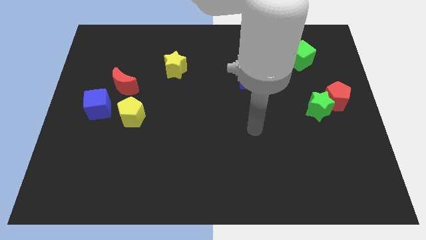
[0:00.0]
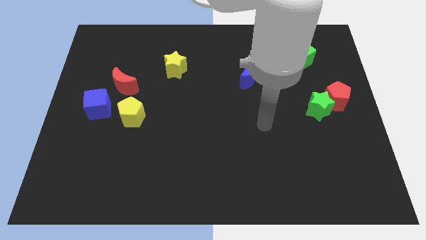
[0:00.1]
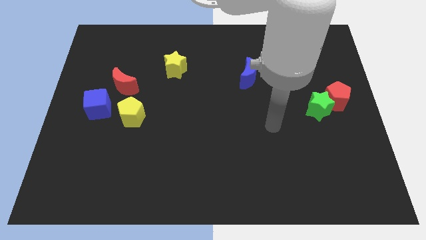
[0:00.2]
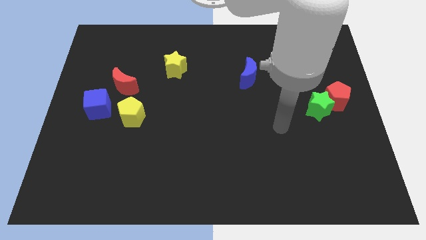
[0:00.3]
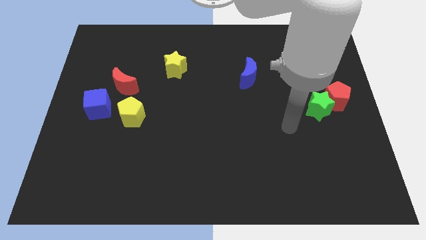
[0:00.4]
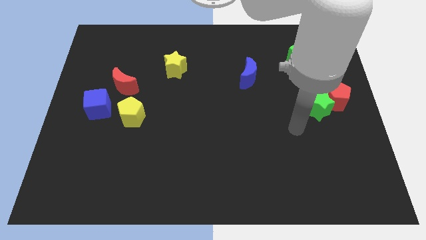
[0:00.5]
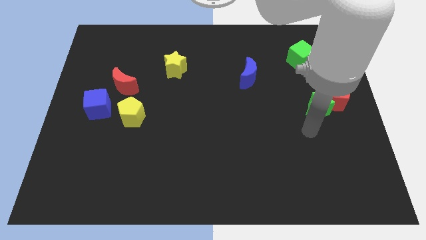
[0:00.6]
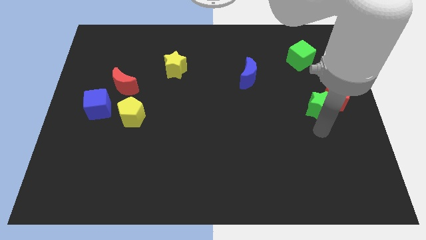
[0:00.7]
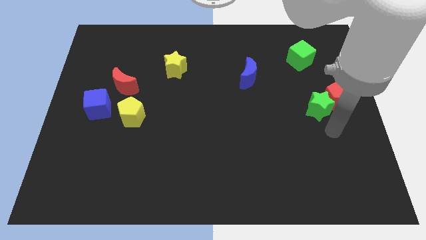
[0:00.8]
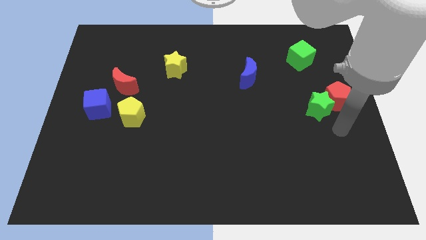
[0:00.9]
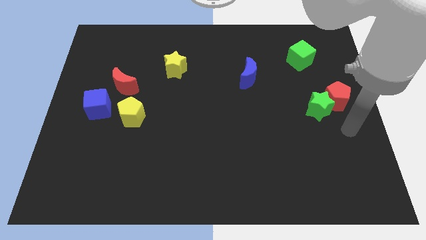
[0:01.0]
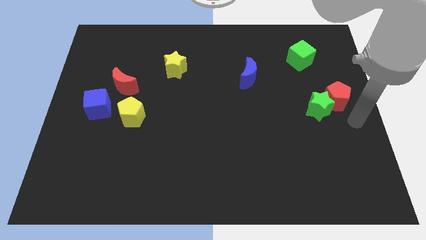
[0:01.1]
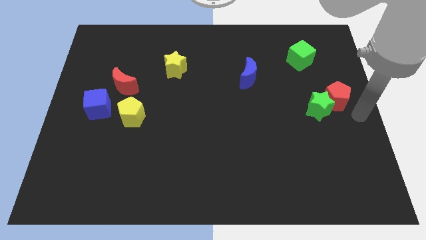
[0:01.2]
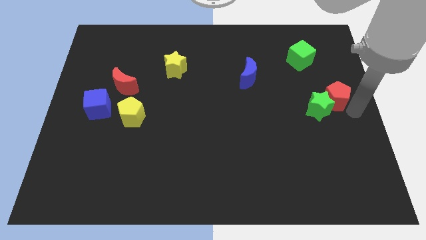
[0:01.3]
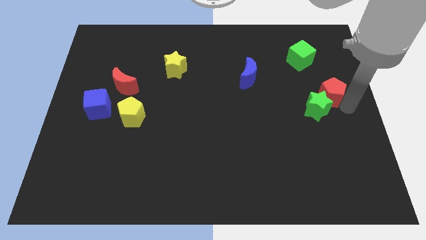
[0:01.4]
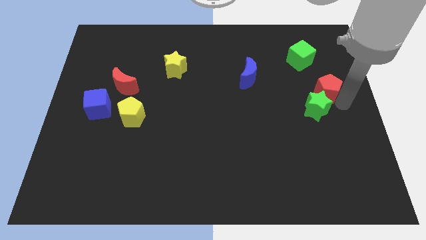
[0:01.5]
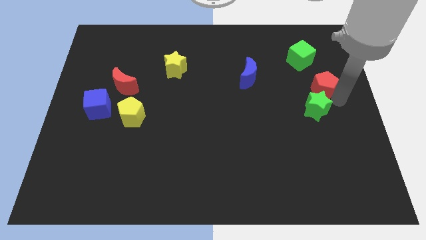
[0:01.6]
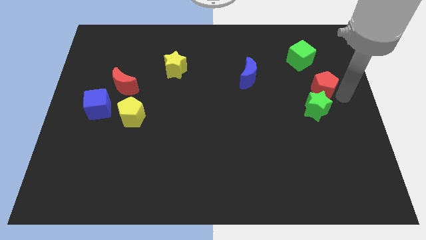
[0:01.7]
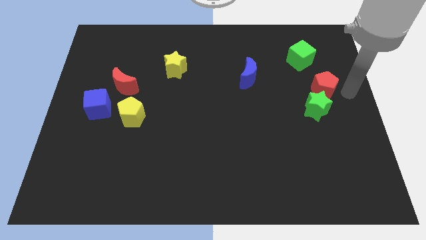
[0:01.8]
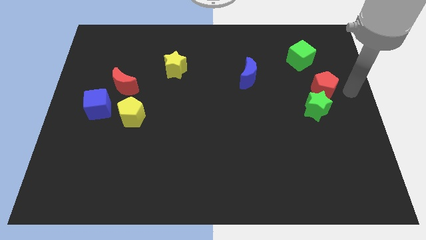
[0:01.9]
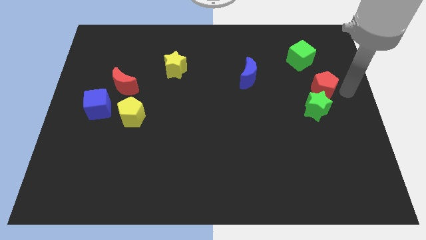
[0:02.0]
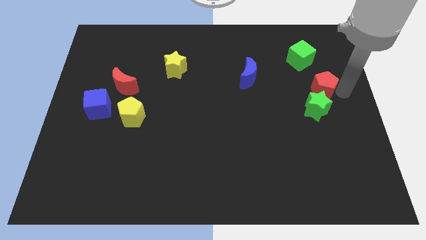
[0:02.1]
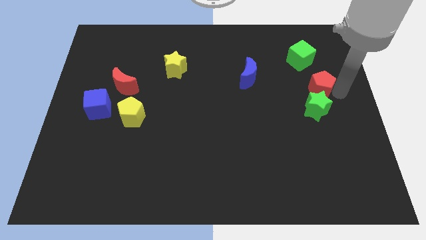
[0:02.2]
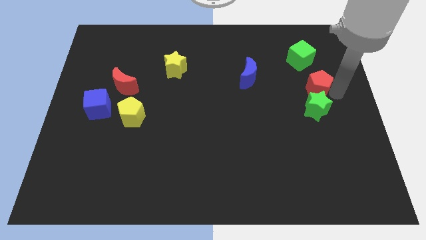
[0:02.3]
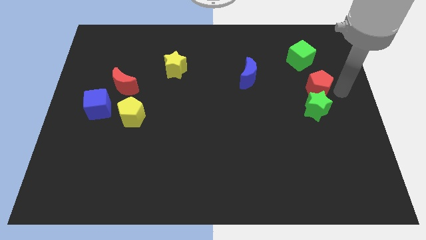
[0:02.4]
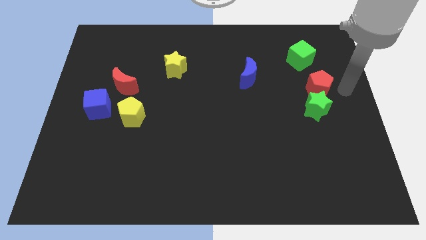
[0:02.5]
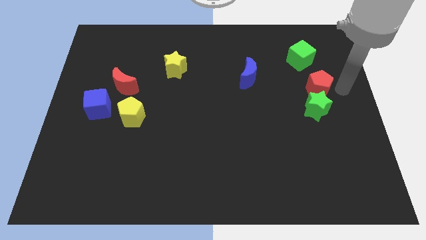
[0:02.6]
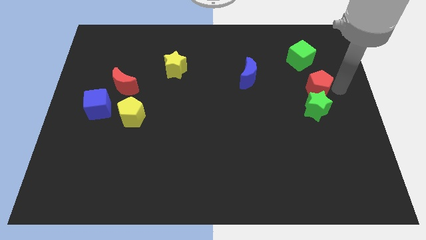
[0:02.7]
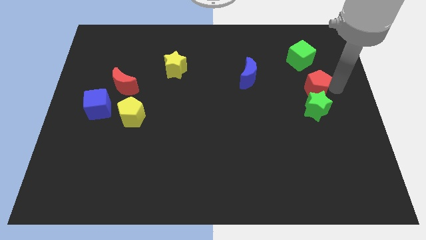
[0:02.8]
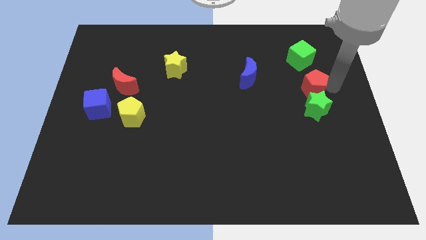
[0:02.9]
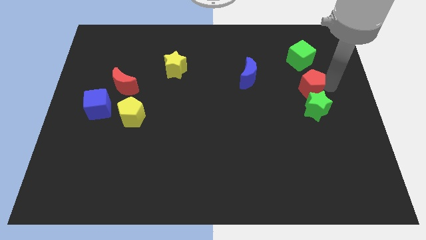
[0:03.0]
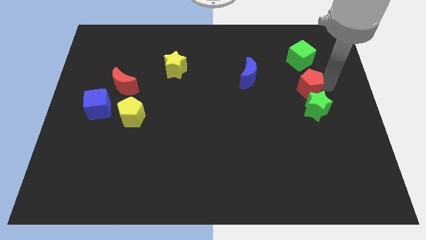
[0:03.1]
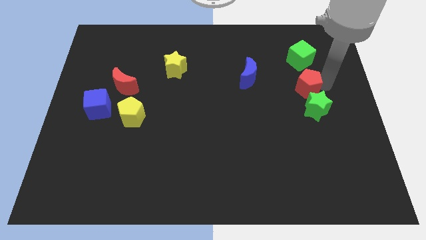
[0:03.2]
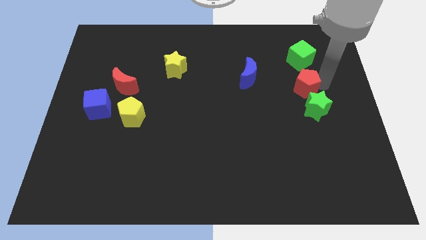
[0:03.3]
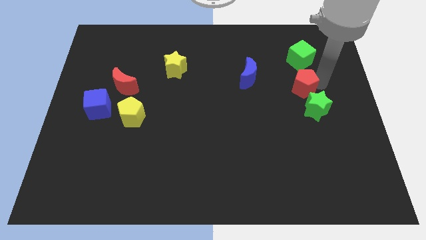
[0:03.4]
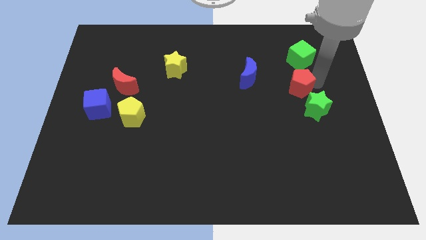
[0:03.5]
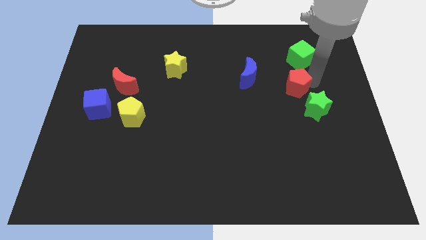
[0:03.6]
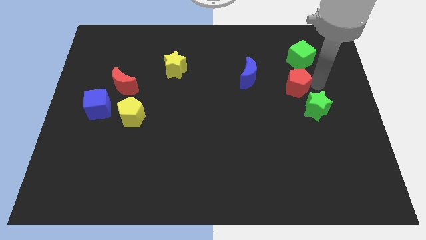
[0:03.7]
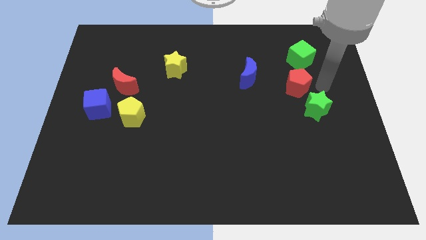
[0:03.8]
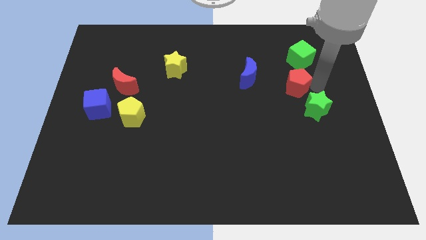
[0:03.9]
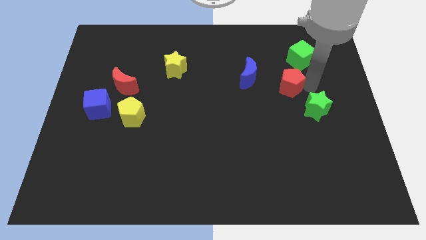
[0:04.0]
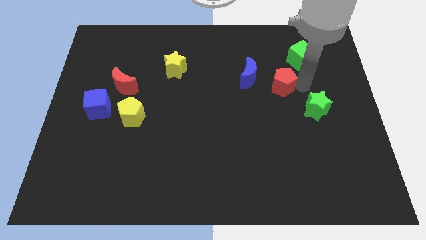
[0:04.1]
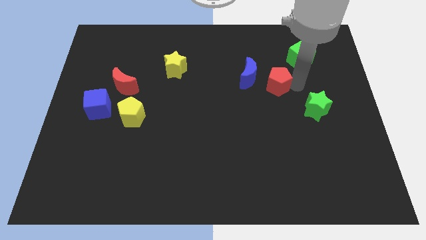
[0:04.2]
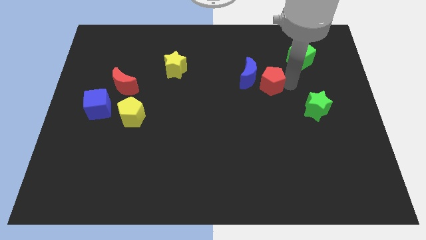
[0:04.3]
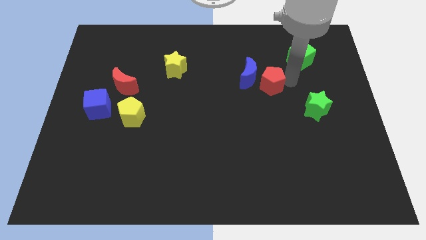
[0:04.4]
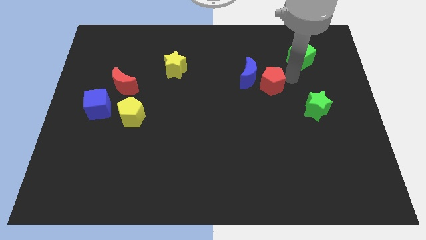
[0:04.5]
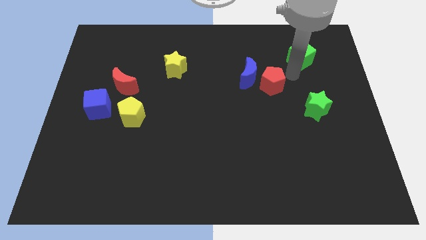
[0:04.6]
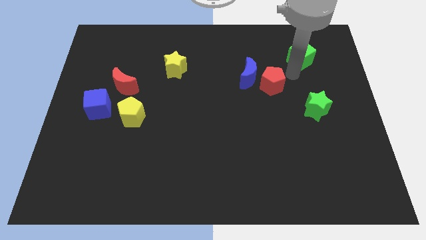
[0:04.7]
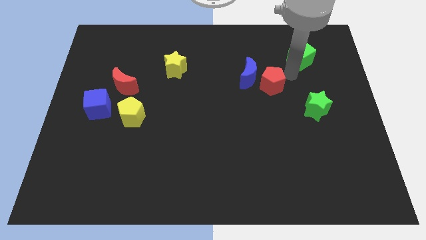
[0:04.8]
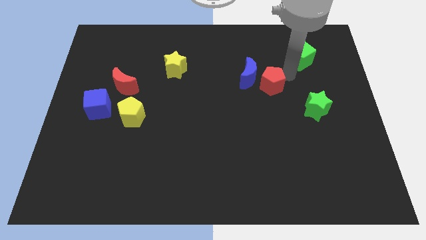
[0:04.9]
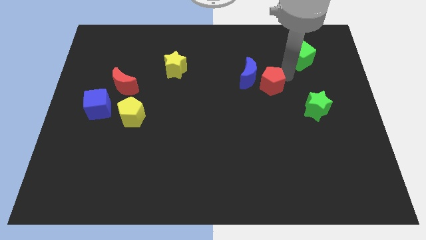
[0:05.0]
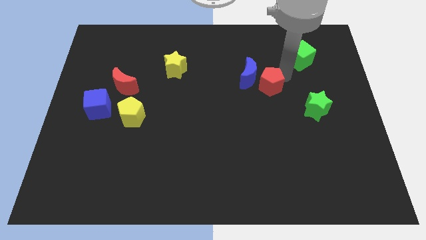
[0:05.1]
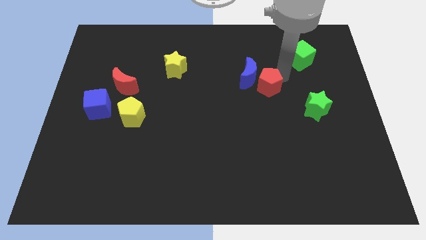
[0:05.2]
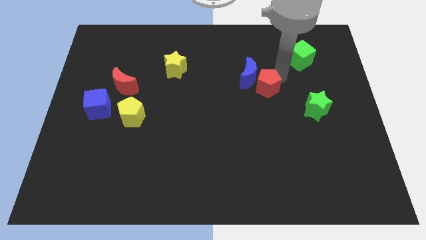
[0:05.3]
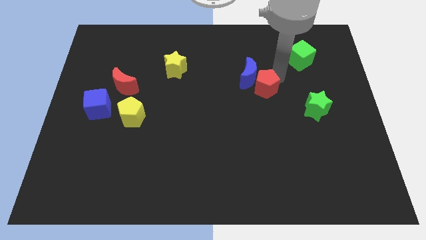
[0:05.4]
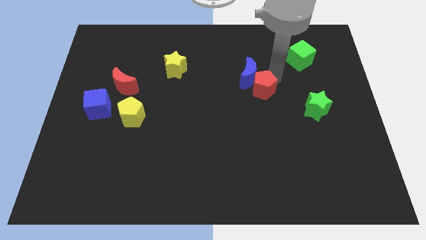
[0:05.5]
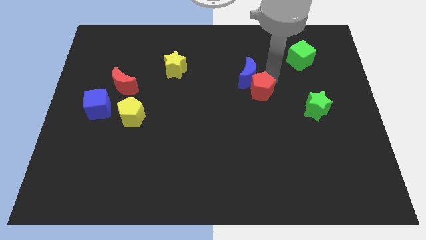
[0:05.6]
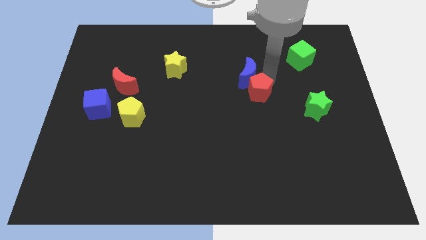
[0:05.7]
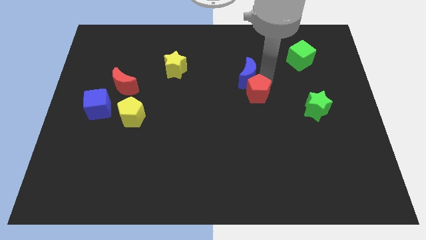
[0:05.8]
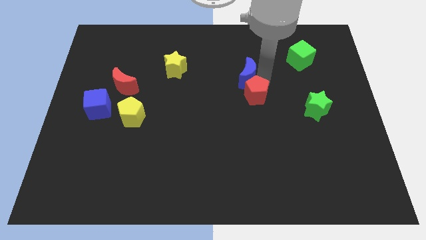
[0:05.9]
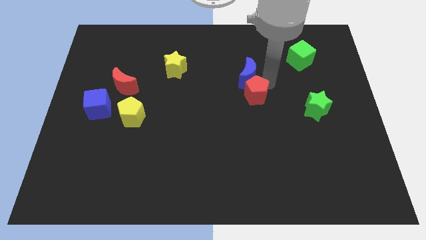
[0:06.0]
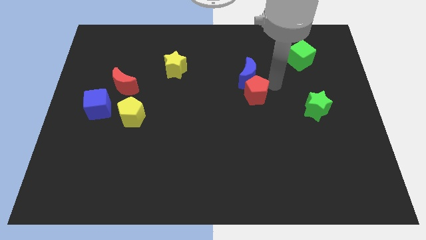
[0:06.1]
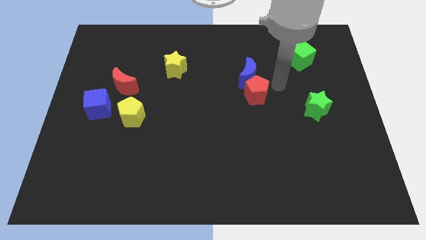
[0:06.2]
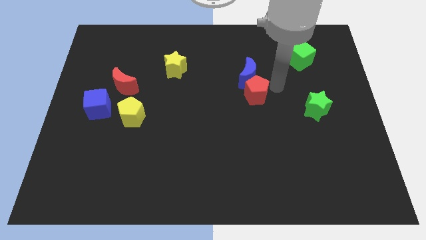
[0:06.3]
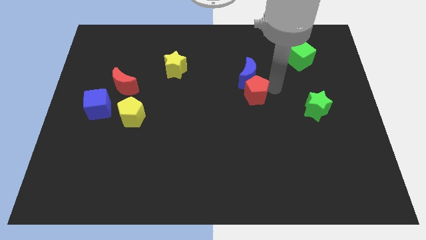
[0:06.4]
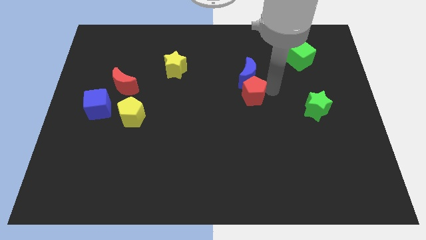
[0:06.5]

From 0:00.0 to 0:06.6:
slide the red pentagon to the left

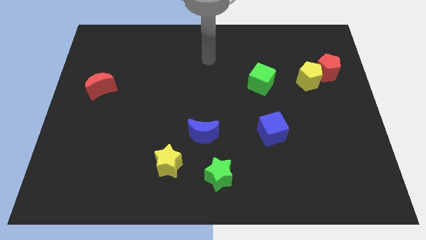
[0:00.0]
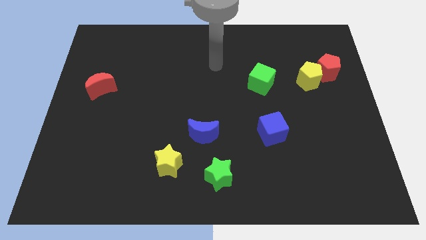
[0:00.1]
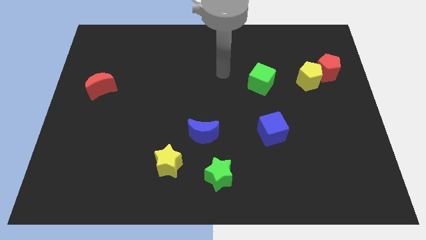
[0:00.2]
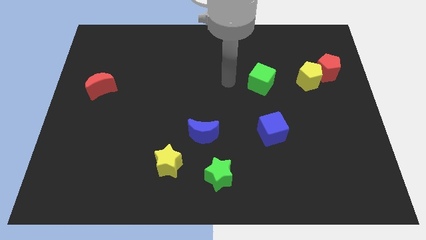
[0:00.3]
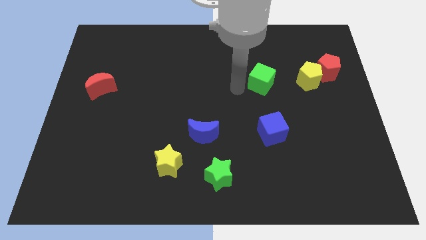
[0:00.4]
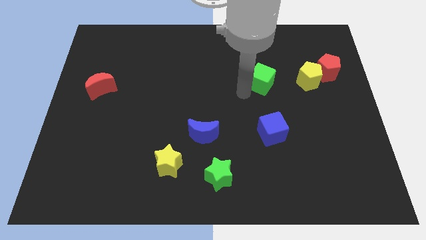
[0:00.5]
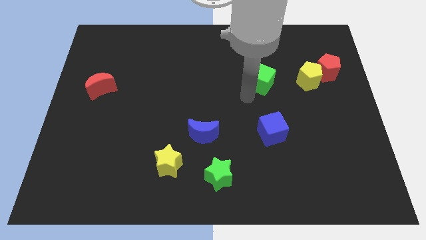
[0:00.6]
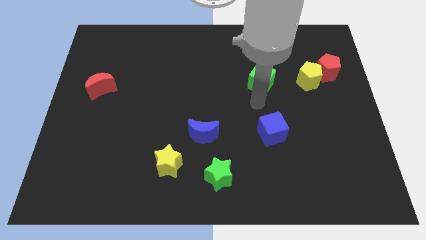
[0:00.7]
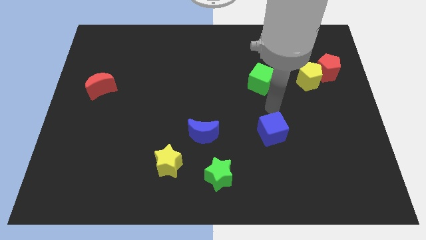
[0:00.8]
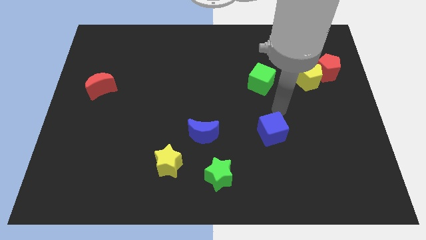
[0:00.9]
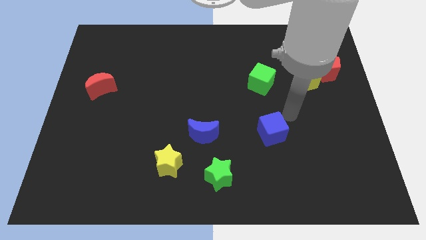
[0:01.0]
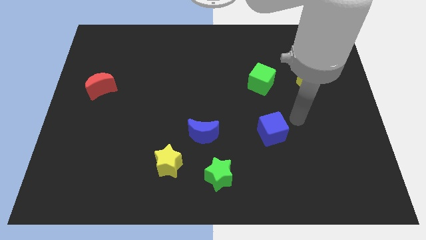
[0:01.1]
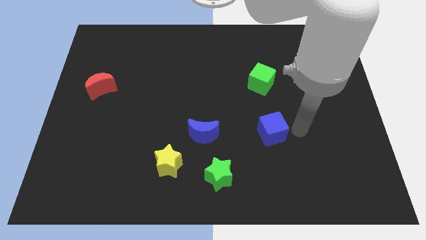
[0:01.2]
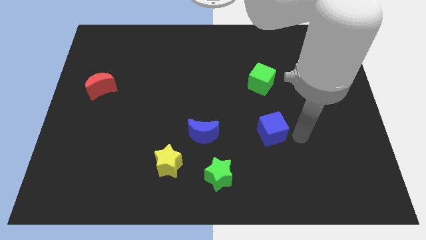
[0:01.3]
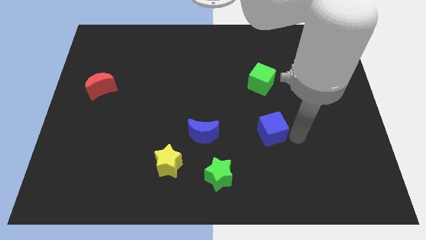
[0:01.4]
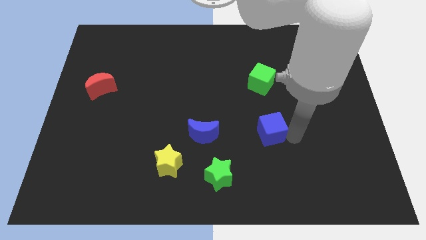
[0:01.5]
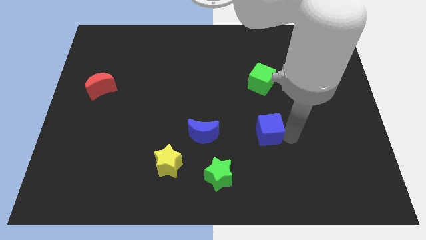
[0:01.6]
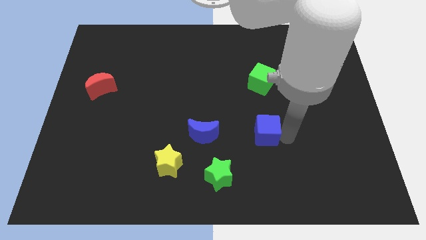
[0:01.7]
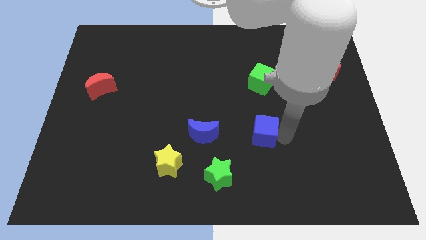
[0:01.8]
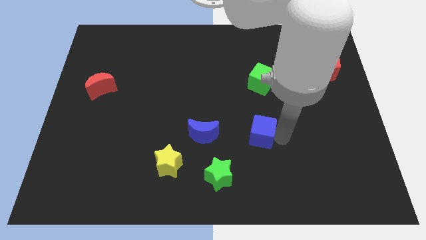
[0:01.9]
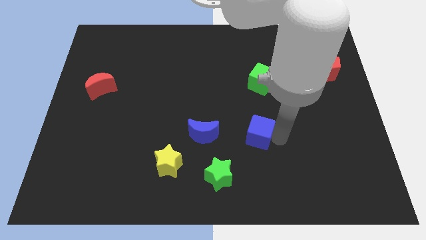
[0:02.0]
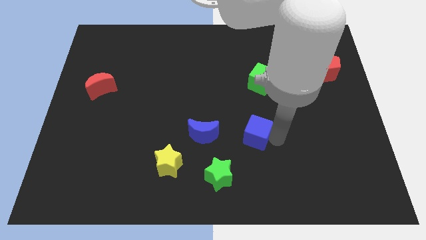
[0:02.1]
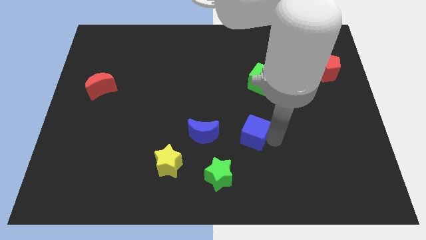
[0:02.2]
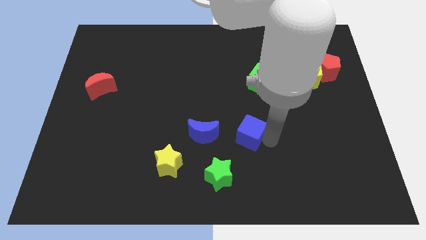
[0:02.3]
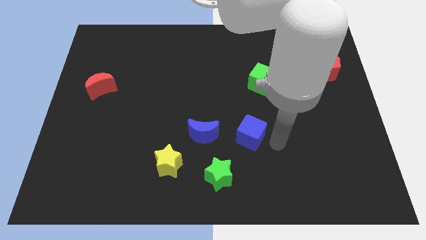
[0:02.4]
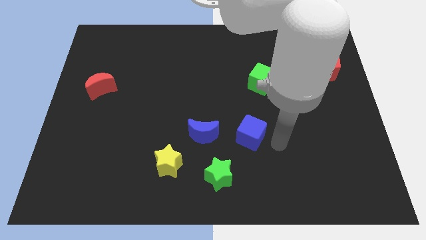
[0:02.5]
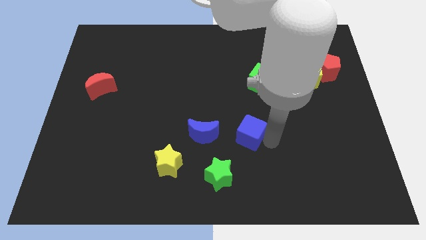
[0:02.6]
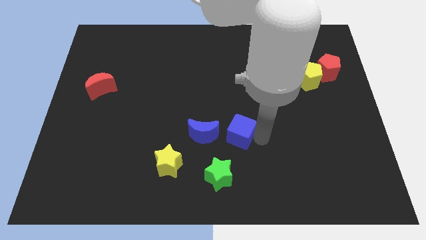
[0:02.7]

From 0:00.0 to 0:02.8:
slightly slide the blue cube to the left
